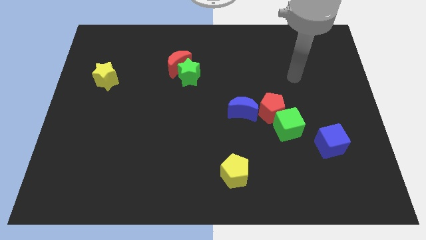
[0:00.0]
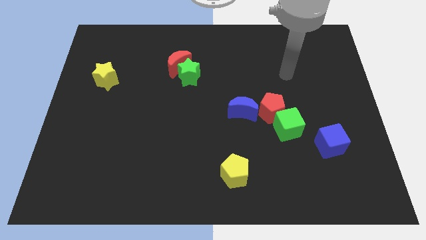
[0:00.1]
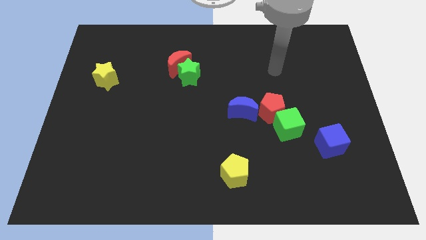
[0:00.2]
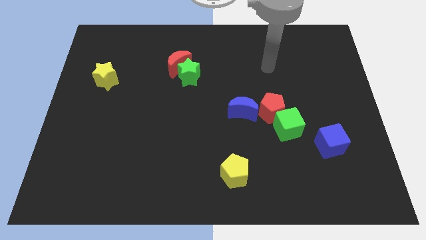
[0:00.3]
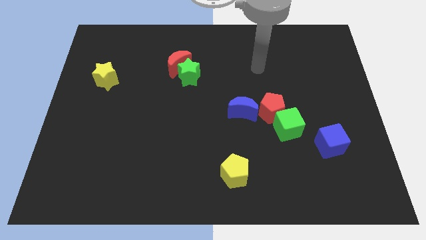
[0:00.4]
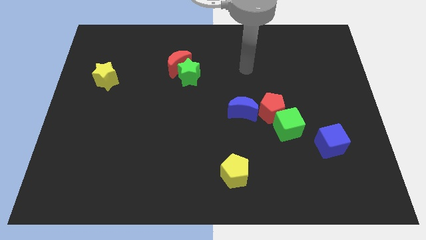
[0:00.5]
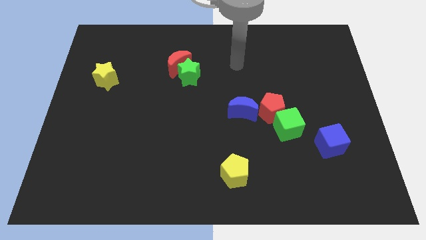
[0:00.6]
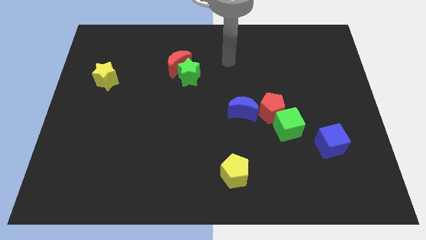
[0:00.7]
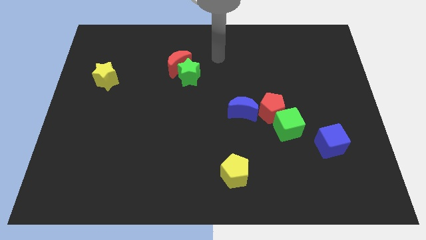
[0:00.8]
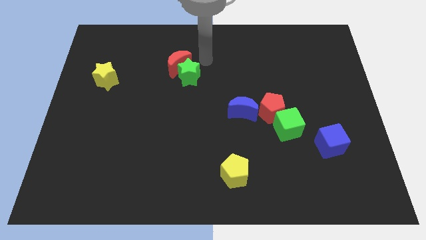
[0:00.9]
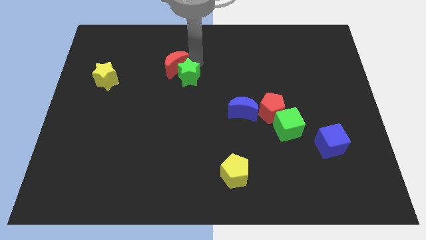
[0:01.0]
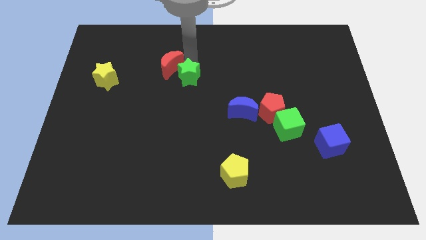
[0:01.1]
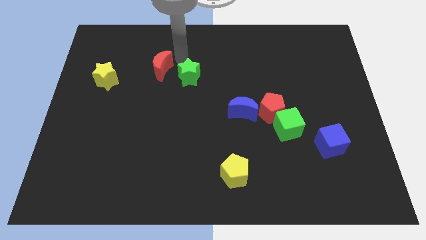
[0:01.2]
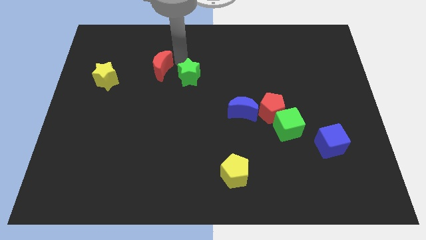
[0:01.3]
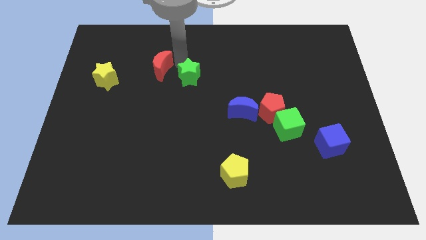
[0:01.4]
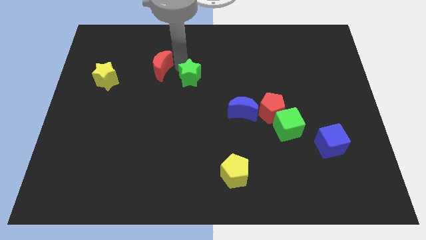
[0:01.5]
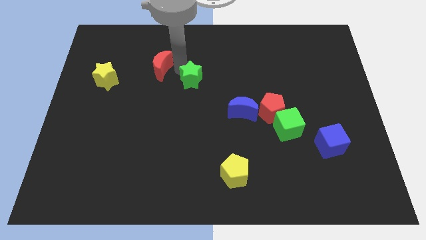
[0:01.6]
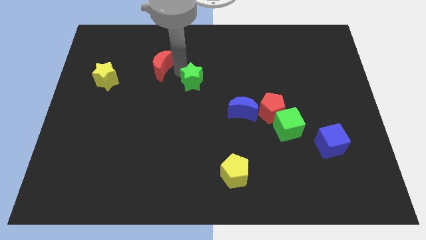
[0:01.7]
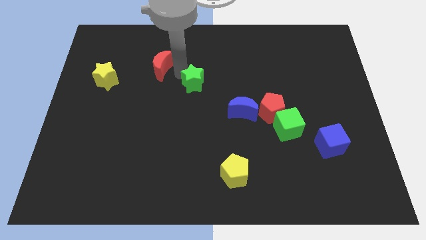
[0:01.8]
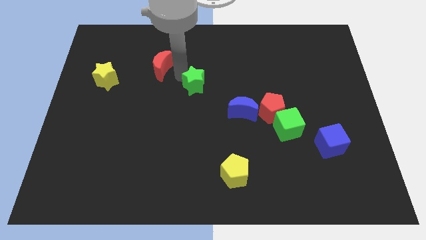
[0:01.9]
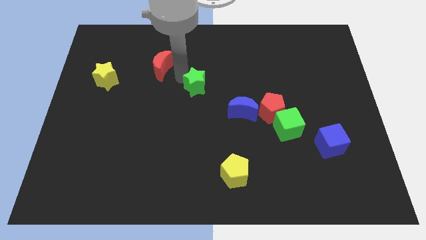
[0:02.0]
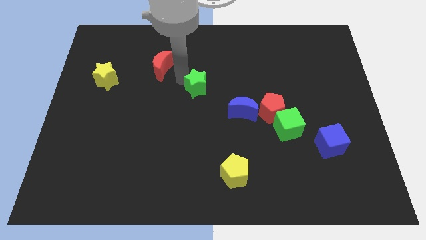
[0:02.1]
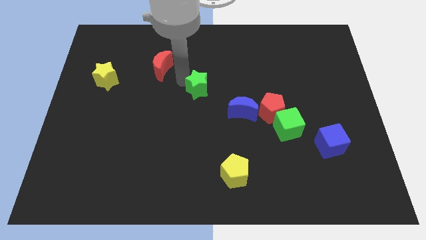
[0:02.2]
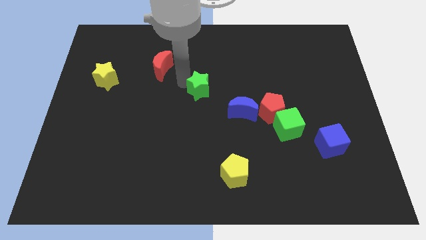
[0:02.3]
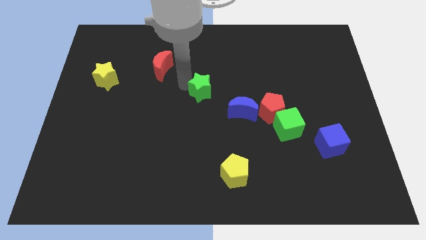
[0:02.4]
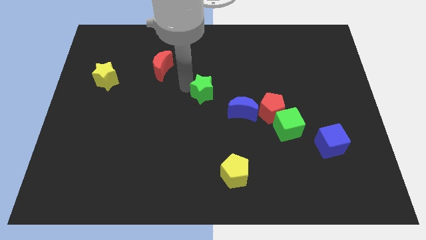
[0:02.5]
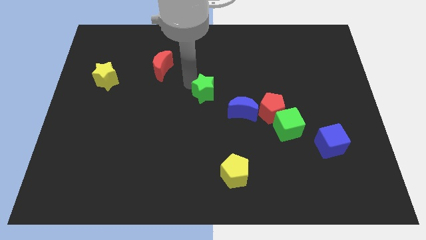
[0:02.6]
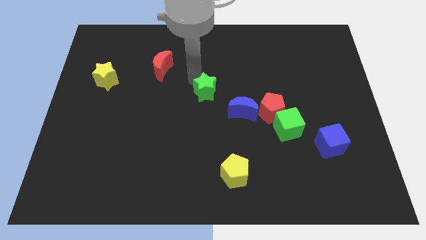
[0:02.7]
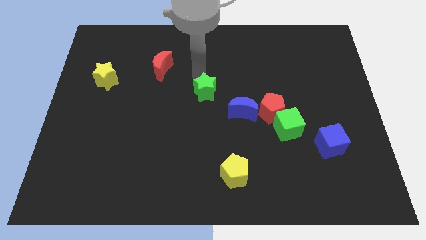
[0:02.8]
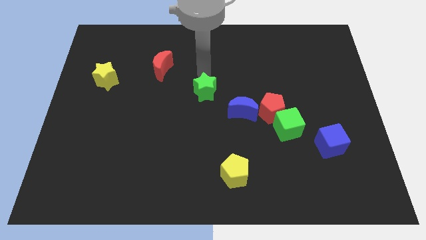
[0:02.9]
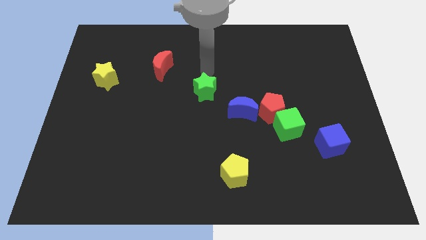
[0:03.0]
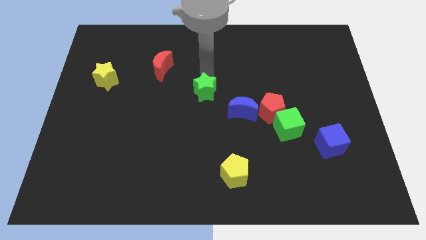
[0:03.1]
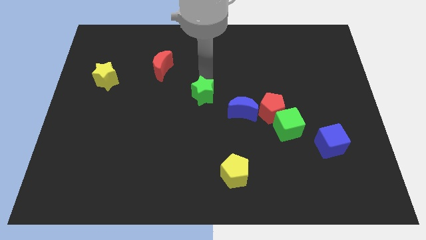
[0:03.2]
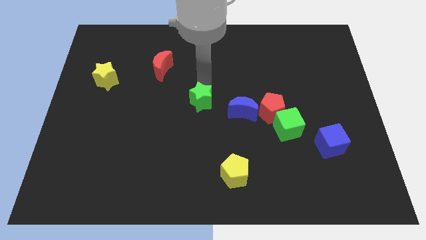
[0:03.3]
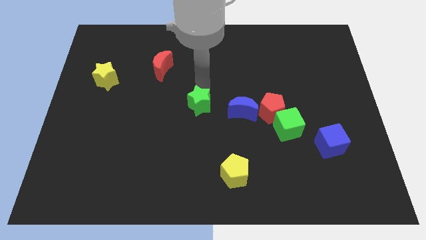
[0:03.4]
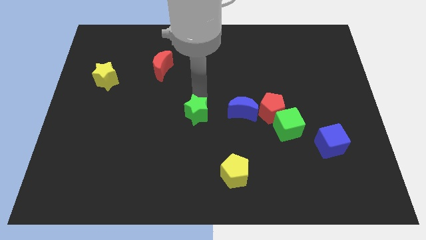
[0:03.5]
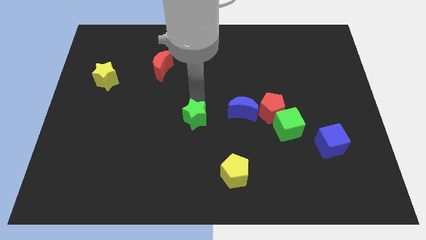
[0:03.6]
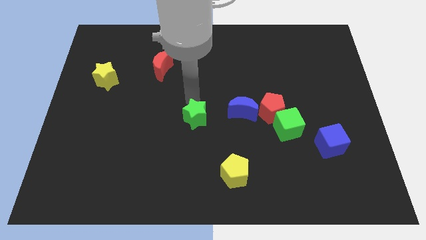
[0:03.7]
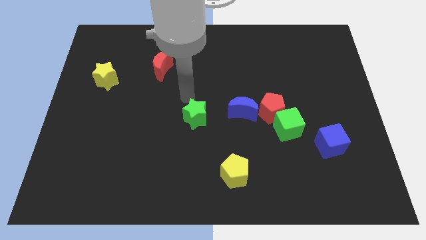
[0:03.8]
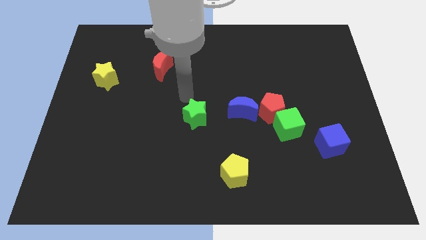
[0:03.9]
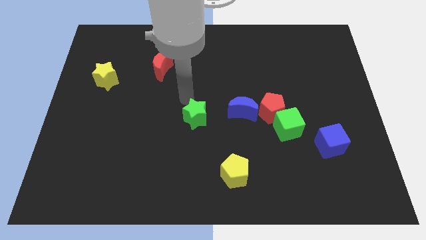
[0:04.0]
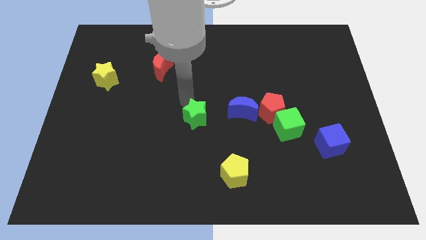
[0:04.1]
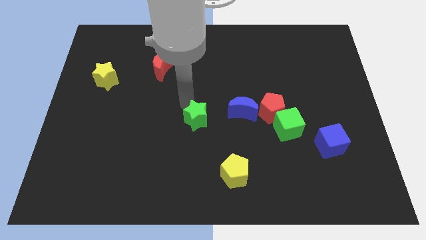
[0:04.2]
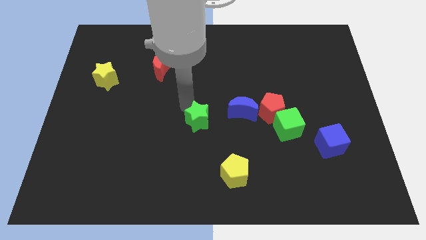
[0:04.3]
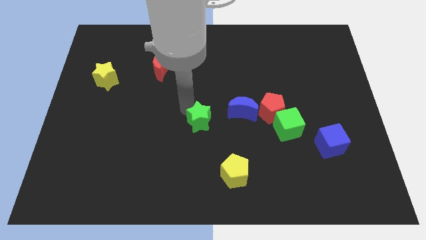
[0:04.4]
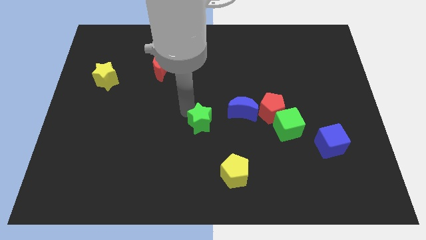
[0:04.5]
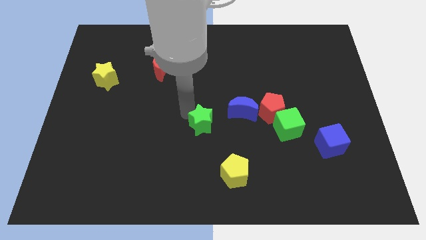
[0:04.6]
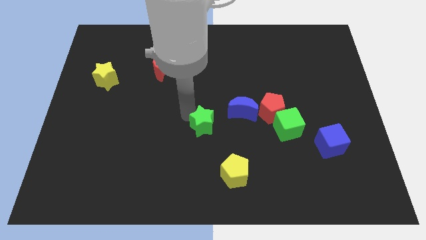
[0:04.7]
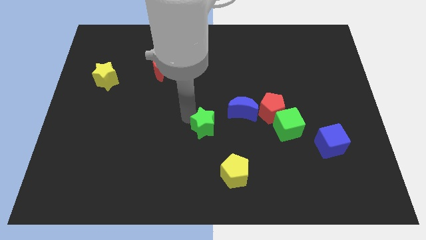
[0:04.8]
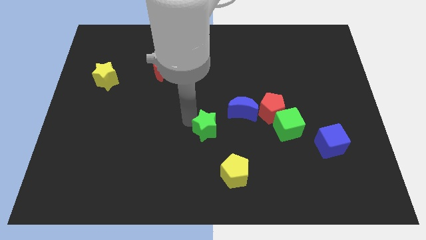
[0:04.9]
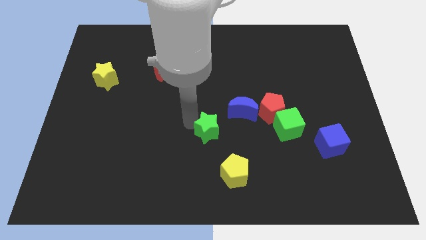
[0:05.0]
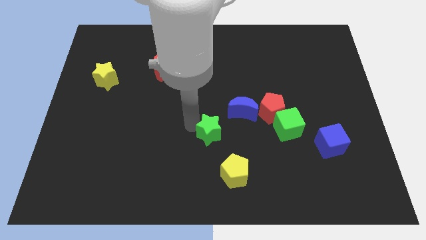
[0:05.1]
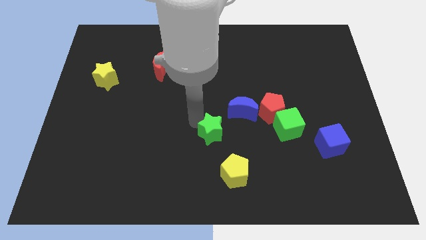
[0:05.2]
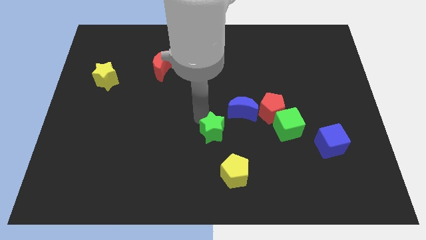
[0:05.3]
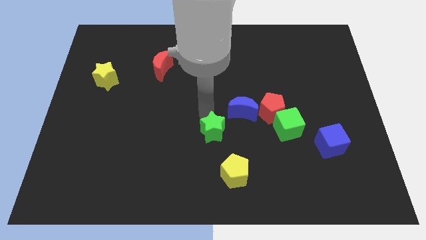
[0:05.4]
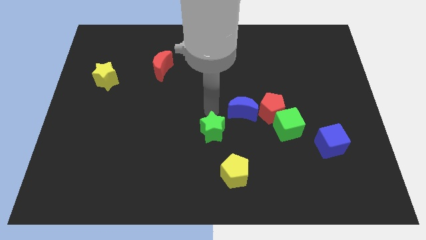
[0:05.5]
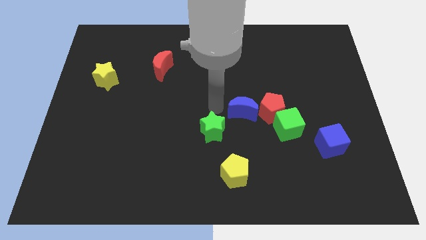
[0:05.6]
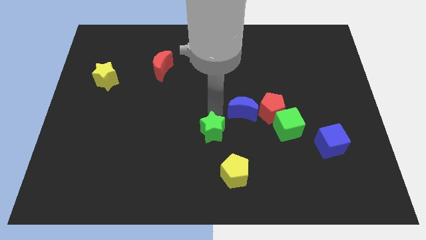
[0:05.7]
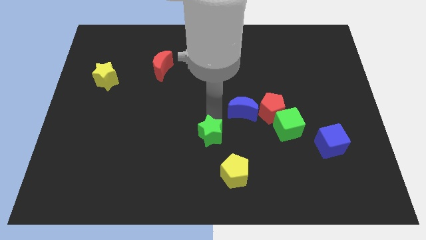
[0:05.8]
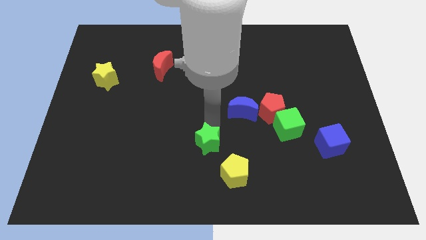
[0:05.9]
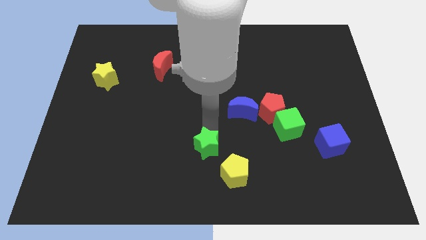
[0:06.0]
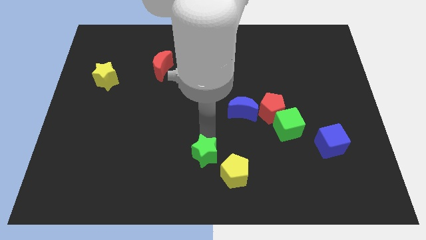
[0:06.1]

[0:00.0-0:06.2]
put the green star to the bottom
